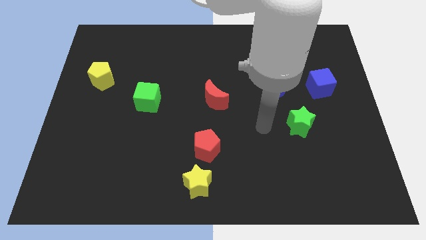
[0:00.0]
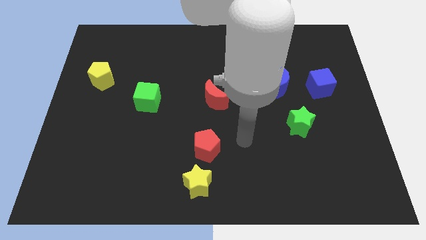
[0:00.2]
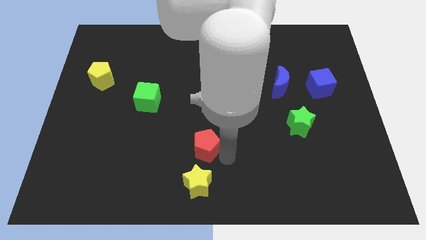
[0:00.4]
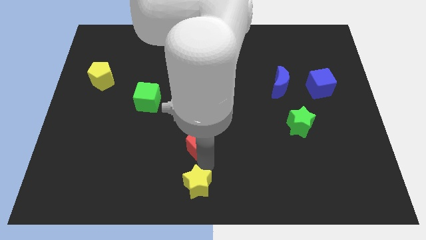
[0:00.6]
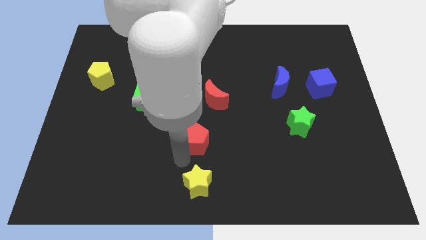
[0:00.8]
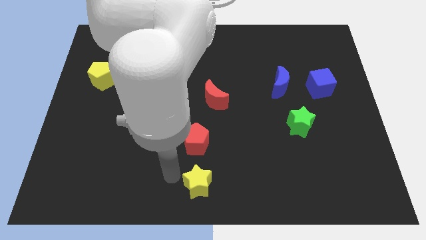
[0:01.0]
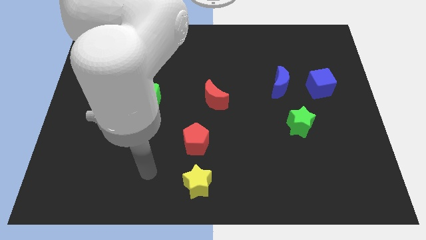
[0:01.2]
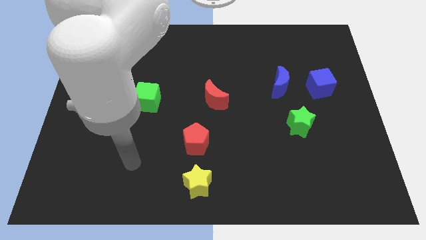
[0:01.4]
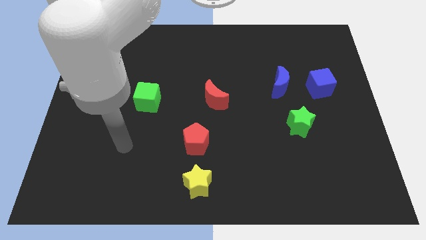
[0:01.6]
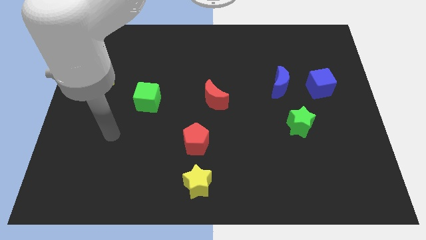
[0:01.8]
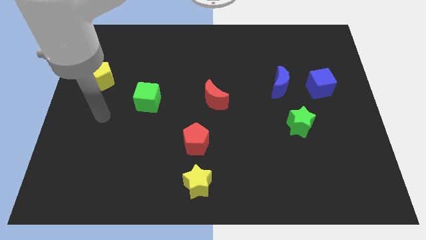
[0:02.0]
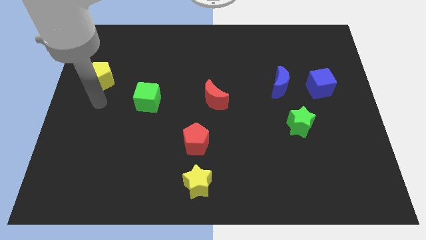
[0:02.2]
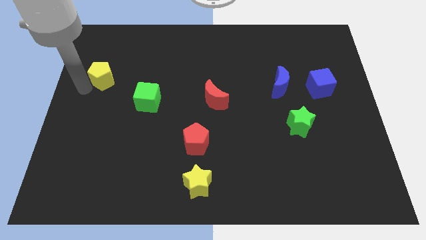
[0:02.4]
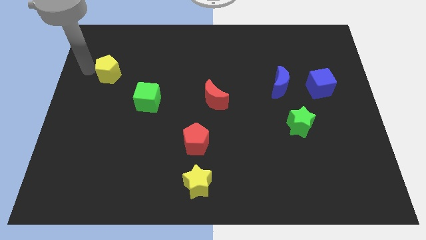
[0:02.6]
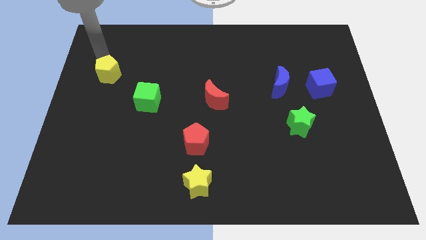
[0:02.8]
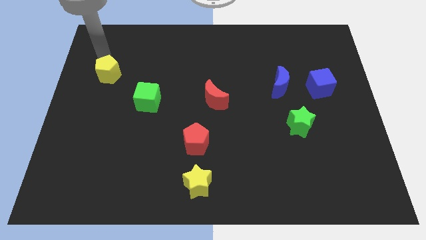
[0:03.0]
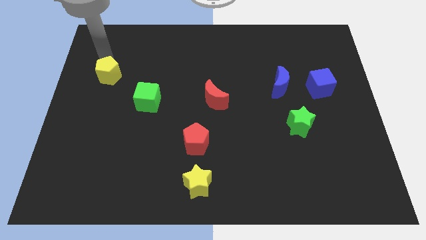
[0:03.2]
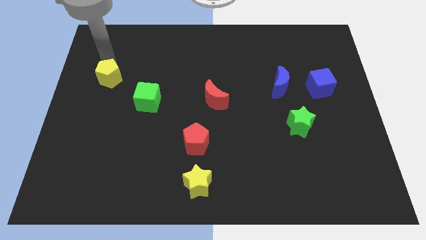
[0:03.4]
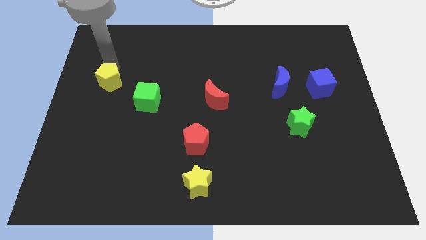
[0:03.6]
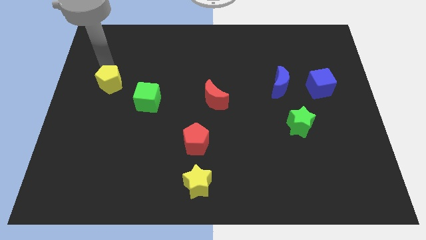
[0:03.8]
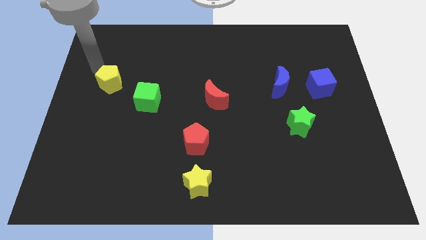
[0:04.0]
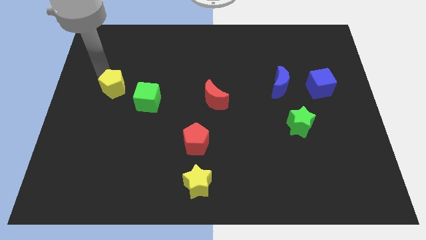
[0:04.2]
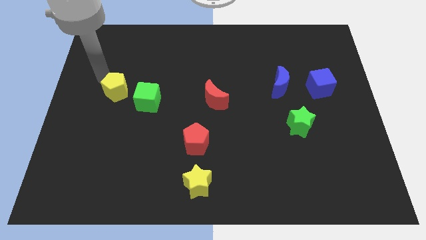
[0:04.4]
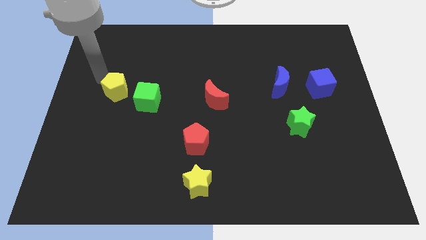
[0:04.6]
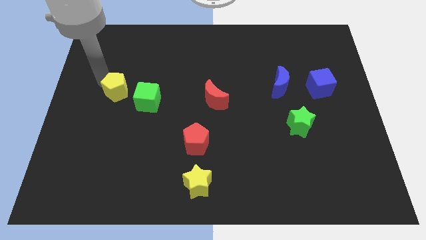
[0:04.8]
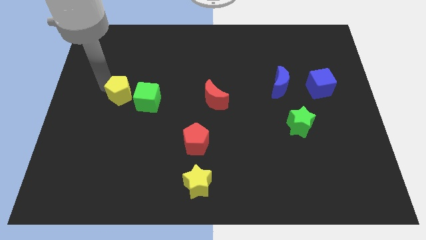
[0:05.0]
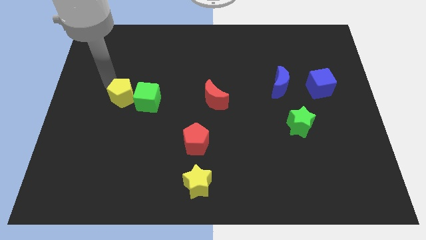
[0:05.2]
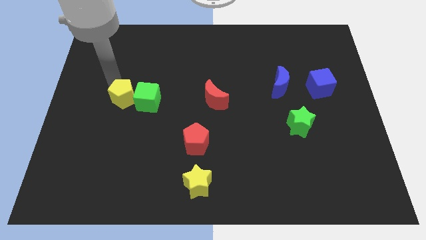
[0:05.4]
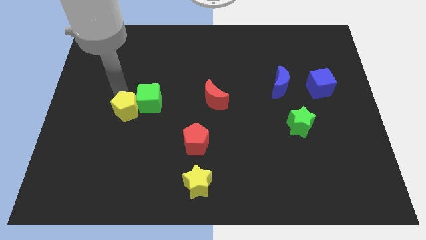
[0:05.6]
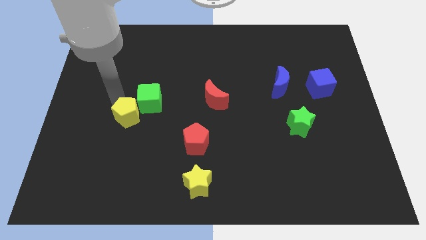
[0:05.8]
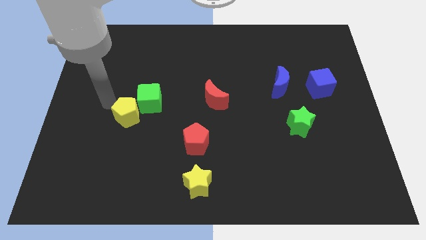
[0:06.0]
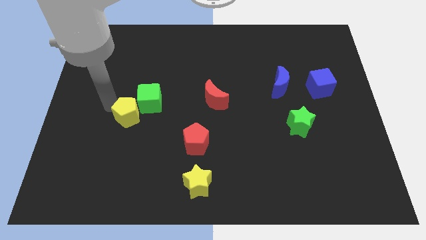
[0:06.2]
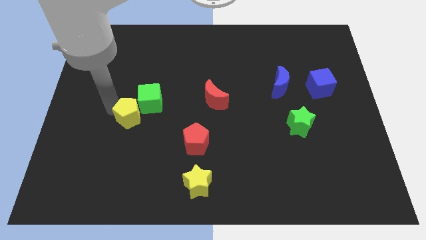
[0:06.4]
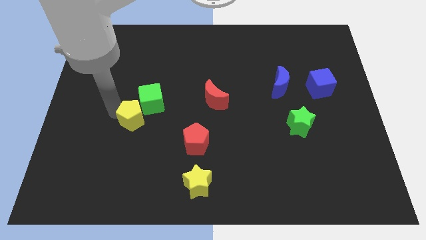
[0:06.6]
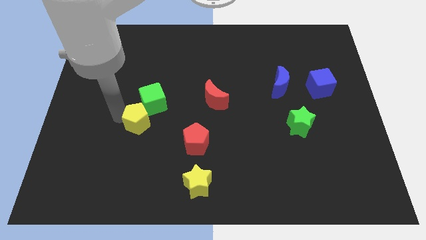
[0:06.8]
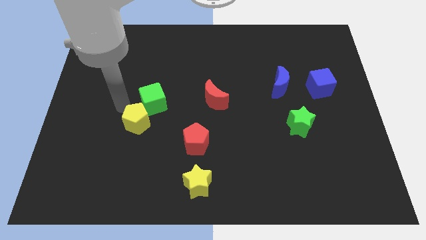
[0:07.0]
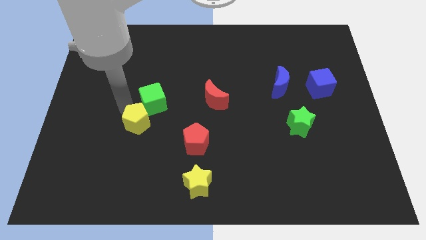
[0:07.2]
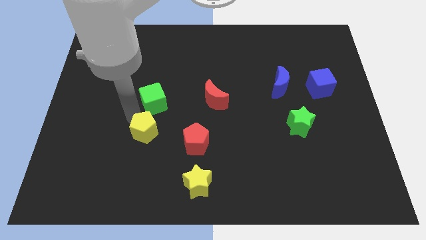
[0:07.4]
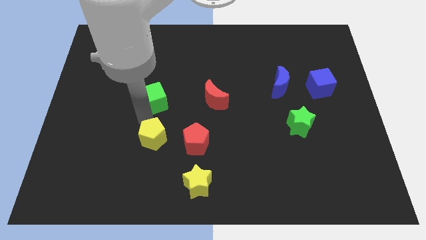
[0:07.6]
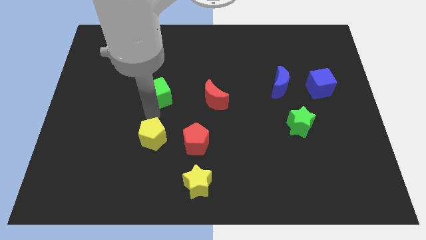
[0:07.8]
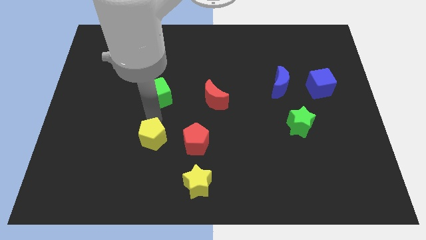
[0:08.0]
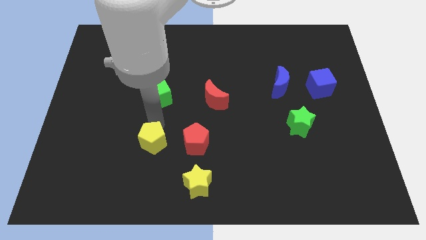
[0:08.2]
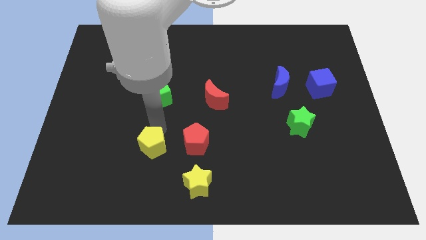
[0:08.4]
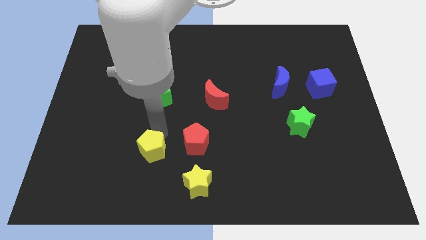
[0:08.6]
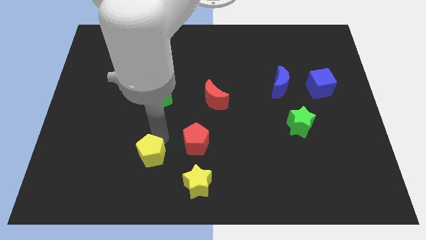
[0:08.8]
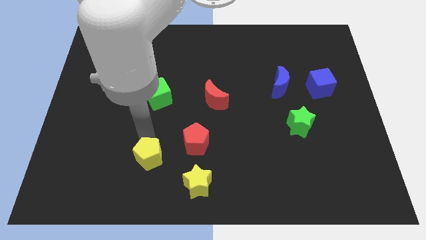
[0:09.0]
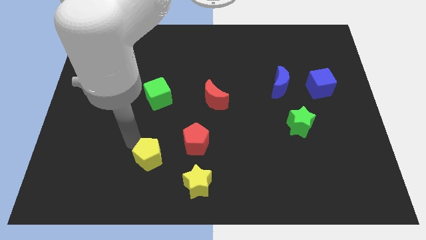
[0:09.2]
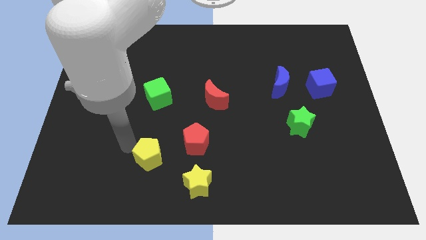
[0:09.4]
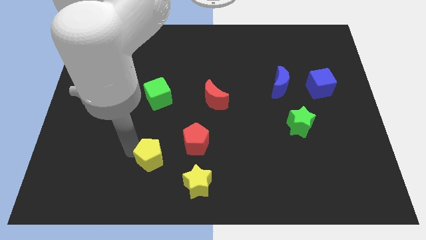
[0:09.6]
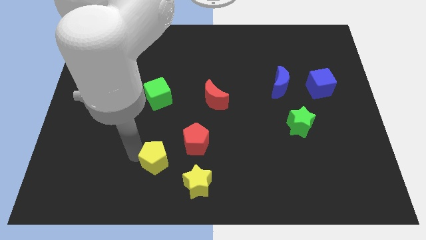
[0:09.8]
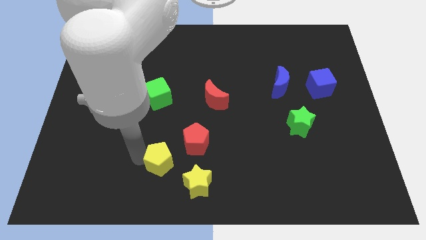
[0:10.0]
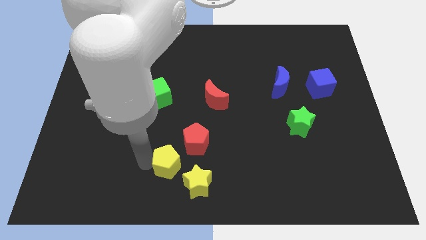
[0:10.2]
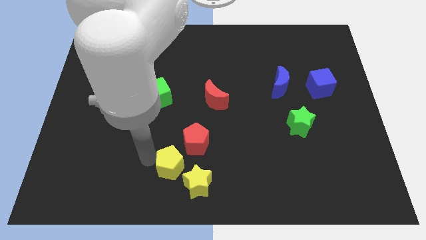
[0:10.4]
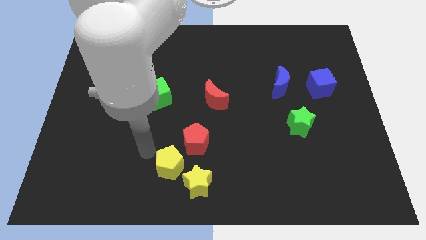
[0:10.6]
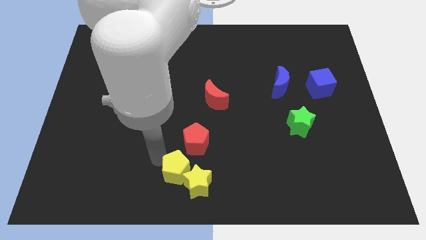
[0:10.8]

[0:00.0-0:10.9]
put the yellow pentagon close to the yellow star

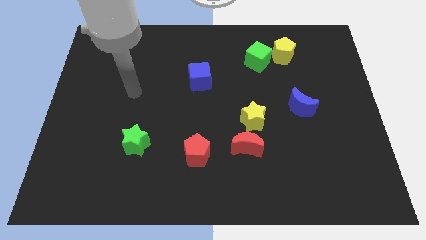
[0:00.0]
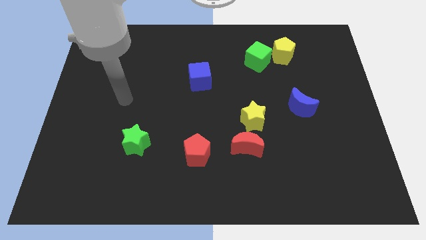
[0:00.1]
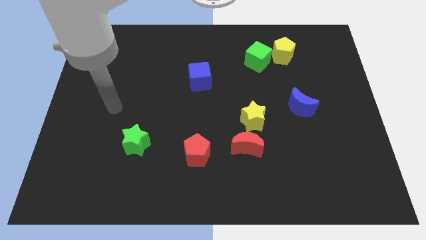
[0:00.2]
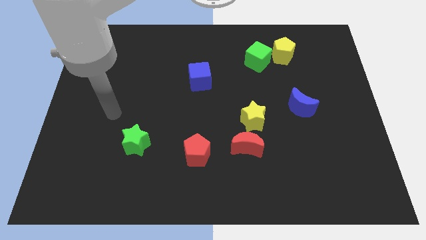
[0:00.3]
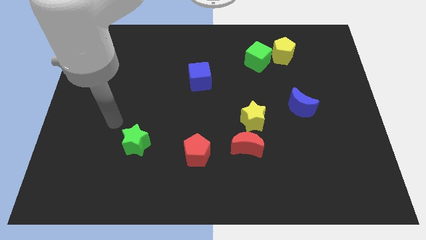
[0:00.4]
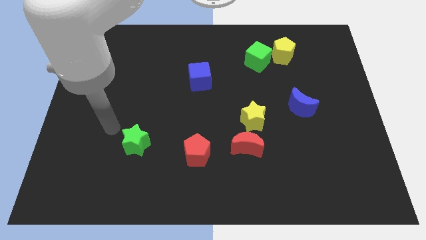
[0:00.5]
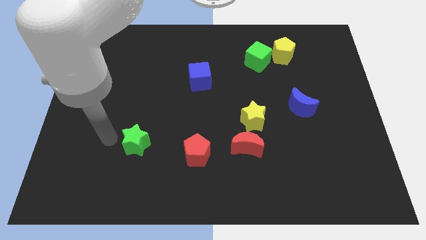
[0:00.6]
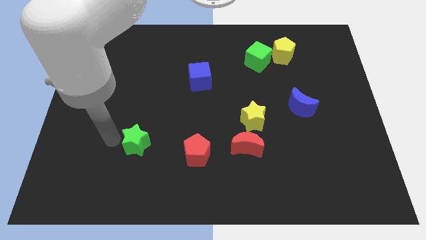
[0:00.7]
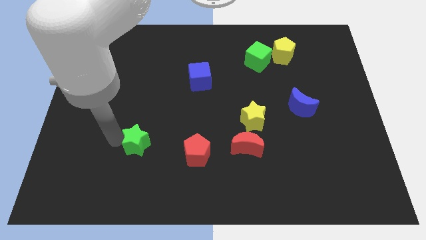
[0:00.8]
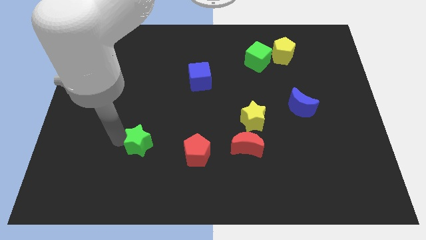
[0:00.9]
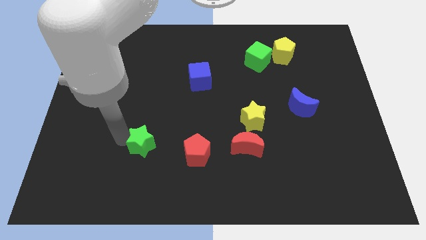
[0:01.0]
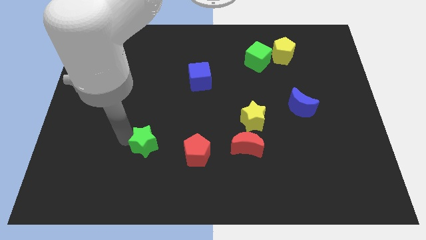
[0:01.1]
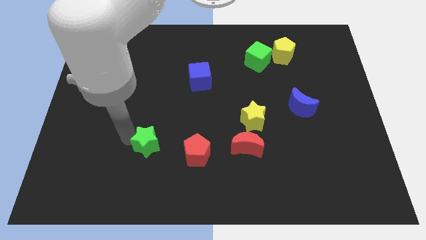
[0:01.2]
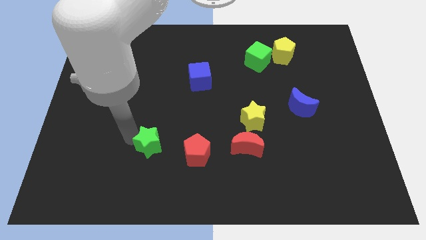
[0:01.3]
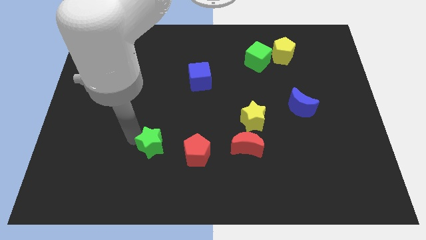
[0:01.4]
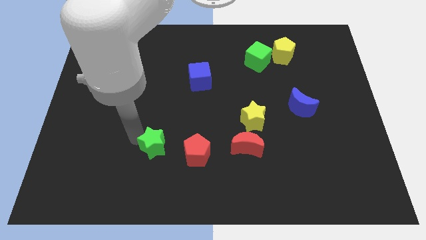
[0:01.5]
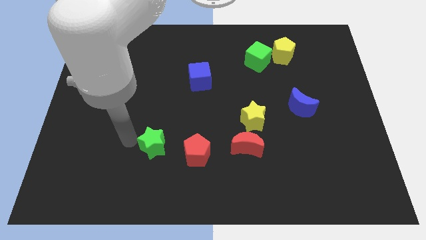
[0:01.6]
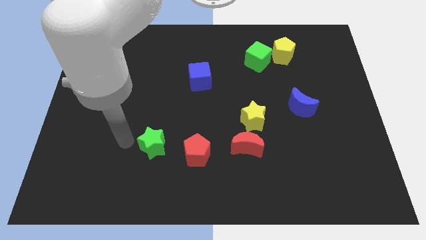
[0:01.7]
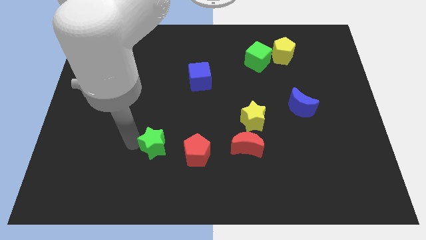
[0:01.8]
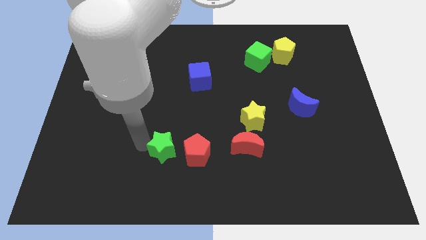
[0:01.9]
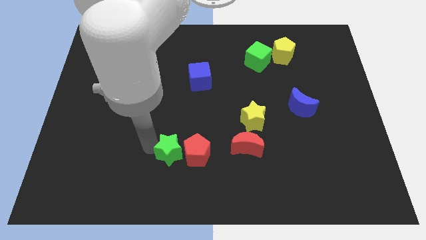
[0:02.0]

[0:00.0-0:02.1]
push the green star towards the red pentagon
